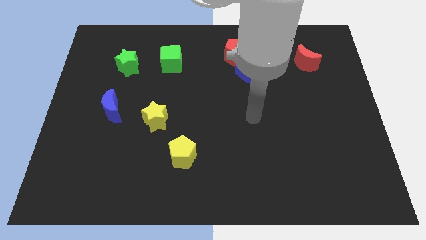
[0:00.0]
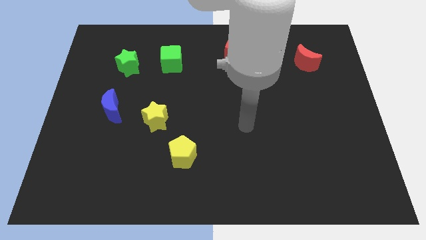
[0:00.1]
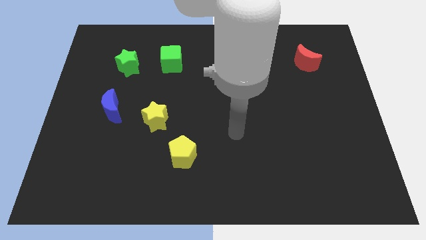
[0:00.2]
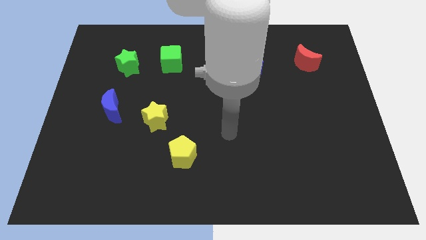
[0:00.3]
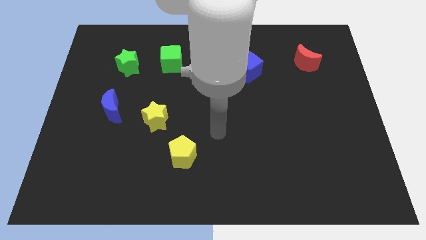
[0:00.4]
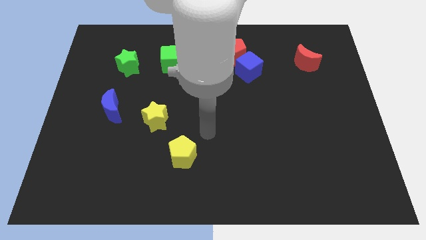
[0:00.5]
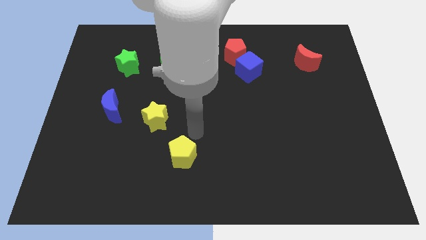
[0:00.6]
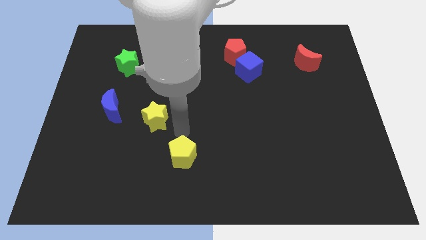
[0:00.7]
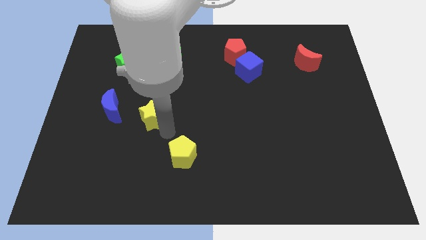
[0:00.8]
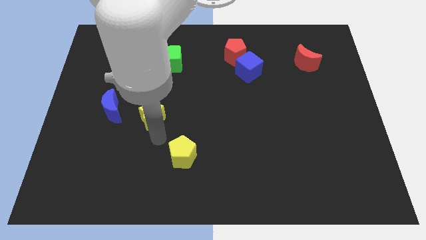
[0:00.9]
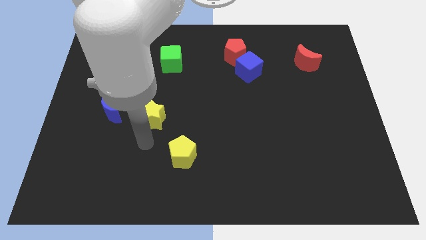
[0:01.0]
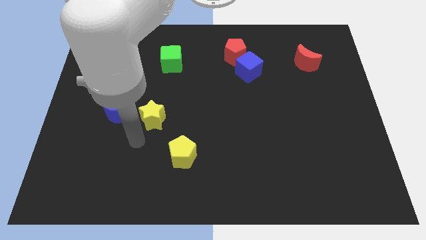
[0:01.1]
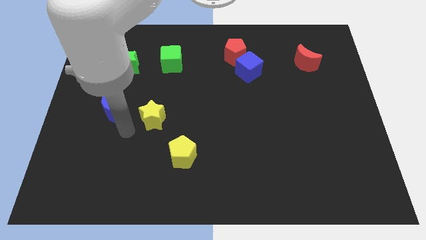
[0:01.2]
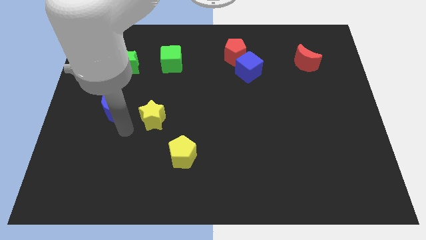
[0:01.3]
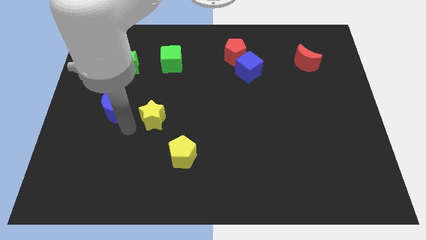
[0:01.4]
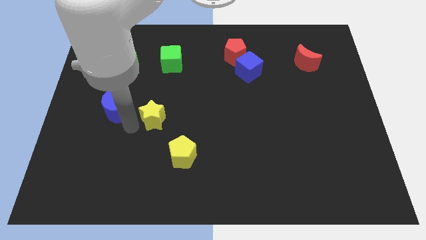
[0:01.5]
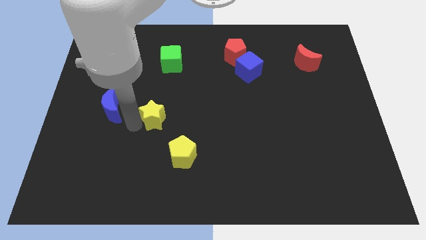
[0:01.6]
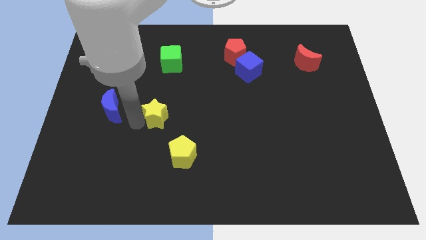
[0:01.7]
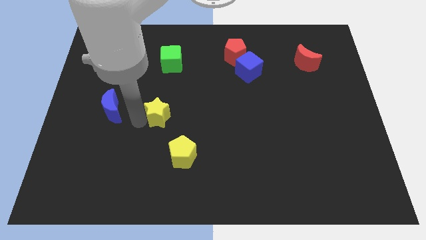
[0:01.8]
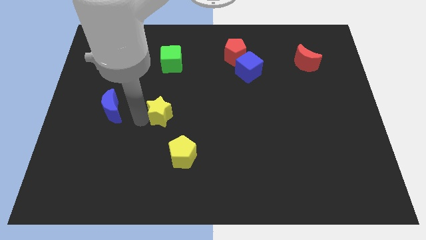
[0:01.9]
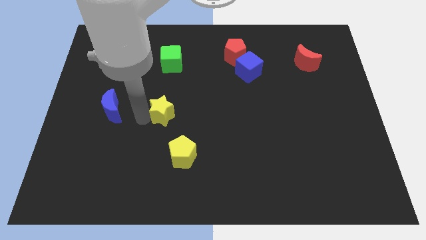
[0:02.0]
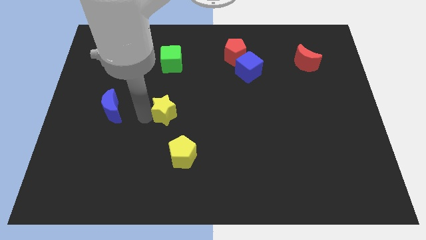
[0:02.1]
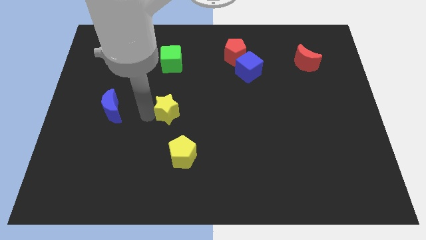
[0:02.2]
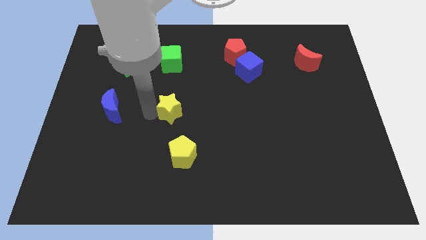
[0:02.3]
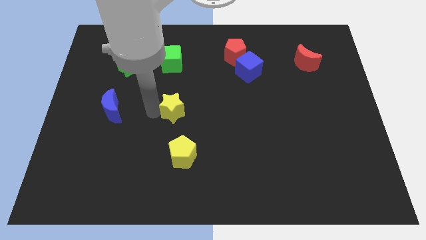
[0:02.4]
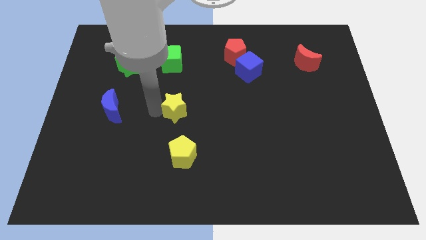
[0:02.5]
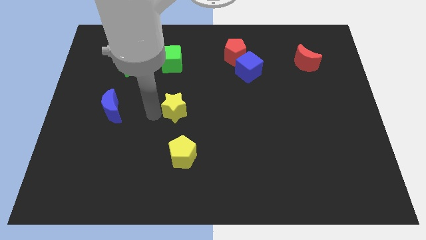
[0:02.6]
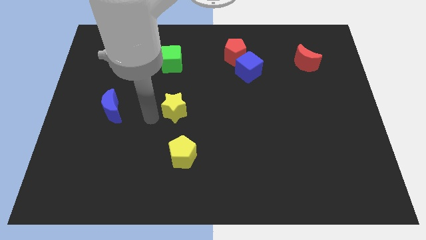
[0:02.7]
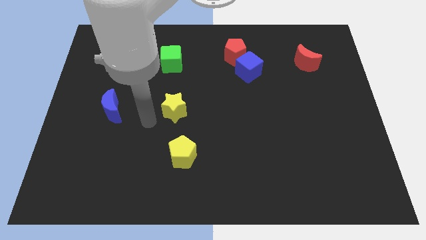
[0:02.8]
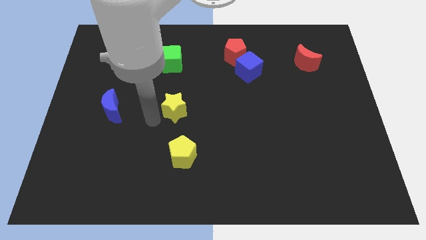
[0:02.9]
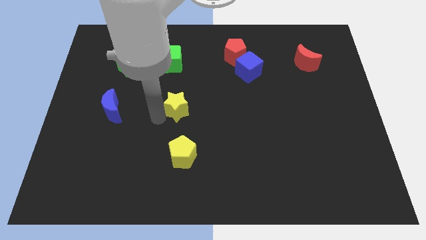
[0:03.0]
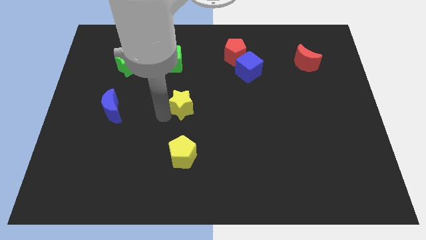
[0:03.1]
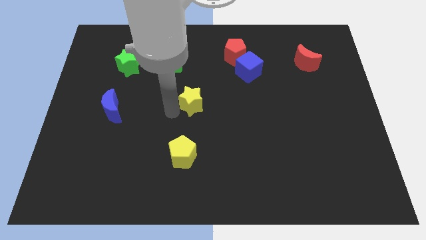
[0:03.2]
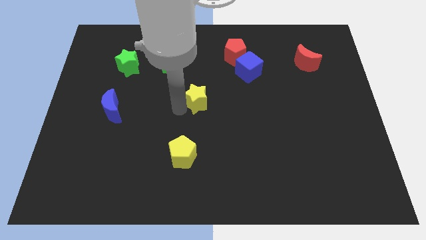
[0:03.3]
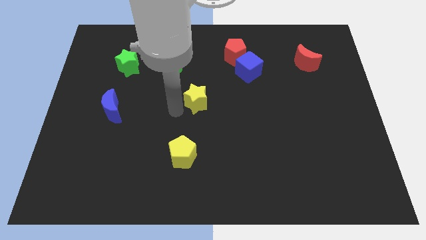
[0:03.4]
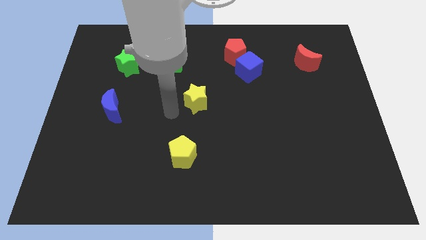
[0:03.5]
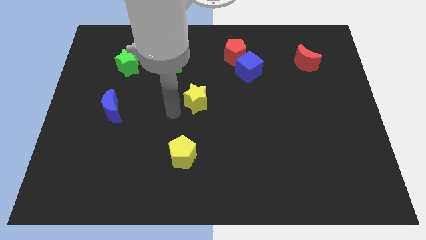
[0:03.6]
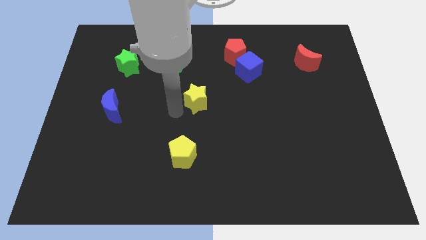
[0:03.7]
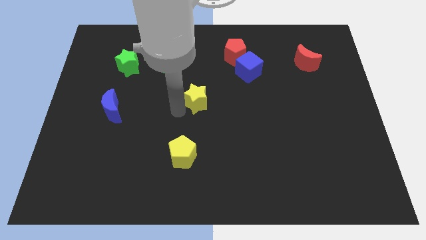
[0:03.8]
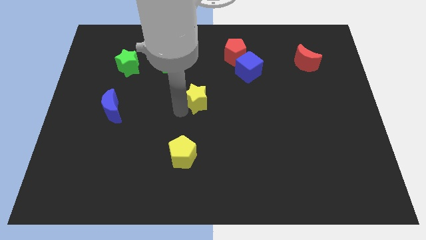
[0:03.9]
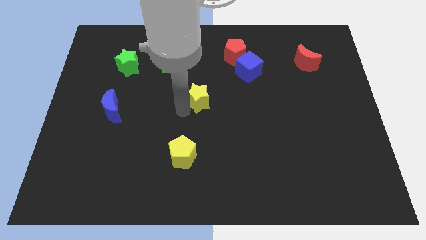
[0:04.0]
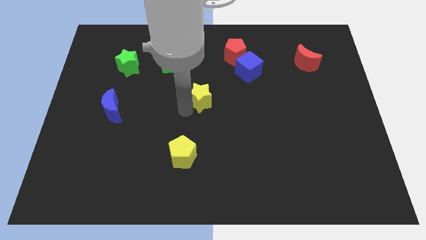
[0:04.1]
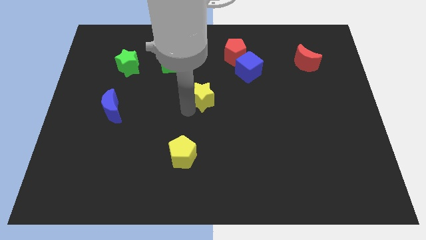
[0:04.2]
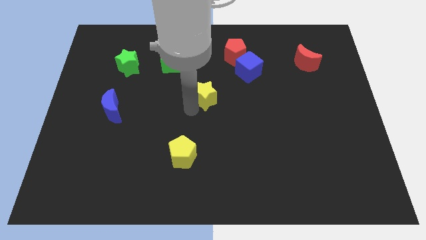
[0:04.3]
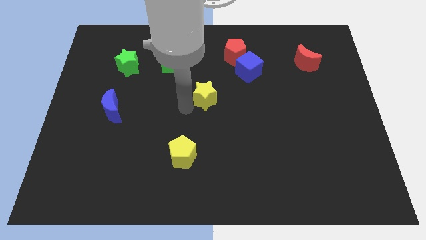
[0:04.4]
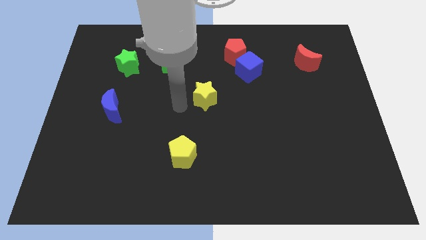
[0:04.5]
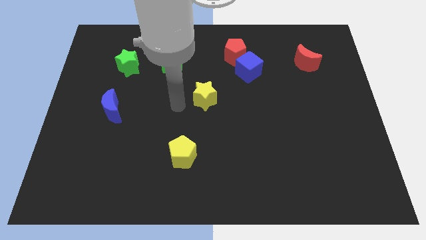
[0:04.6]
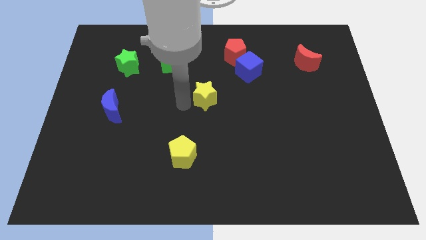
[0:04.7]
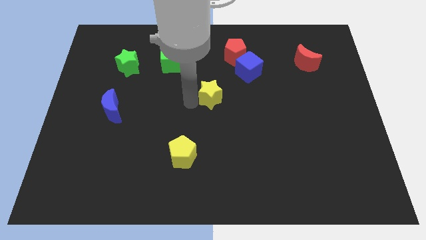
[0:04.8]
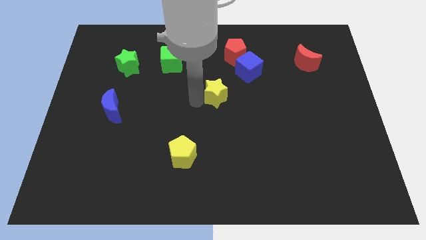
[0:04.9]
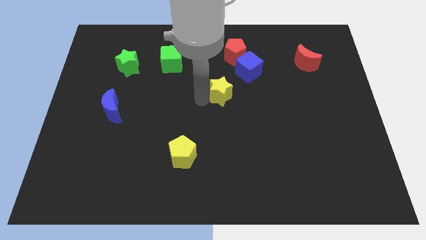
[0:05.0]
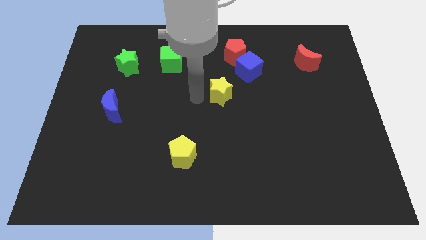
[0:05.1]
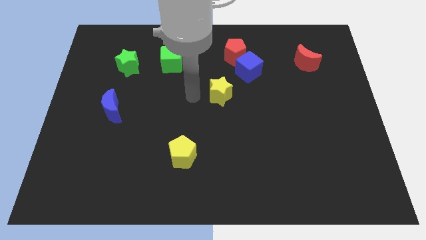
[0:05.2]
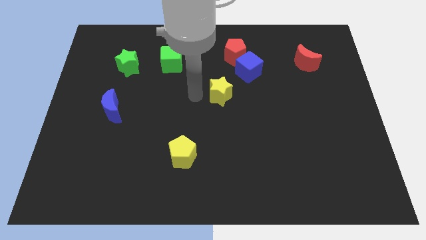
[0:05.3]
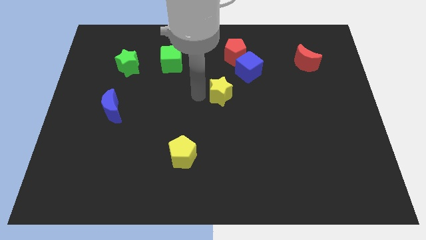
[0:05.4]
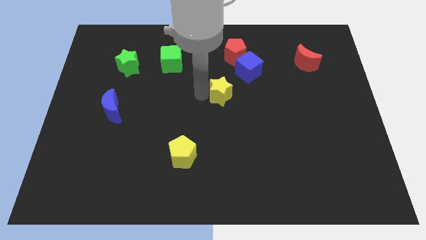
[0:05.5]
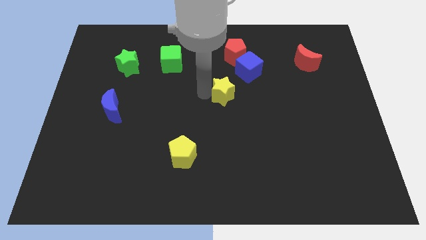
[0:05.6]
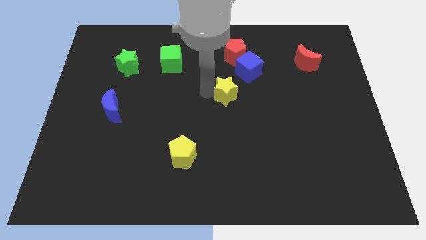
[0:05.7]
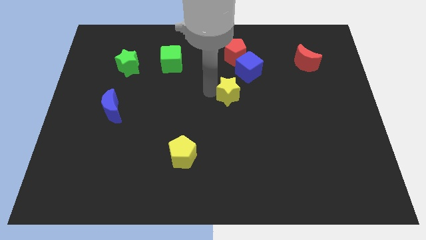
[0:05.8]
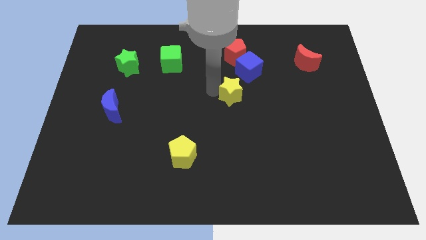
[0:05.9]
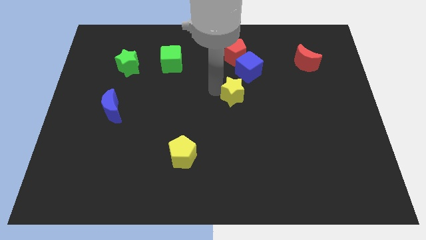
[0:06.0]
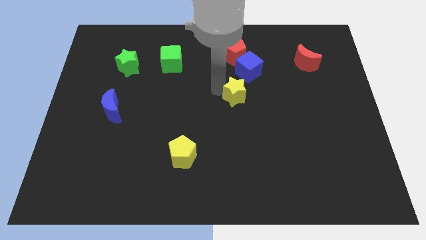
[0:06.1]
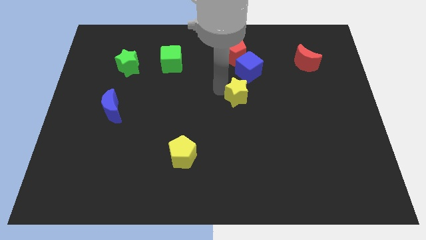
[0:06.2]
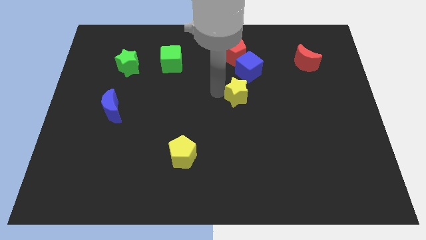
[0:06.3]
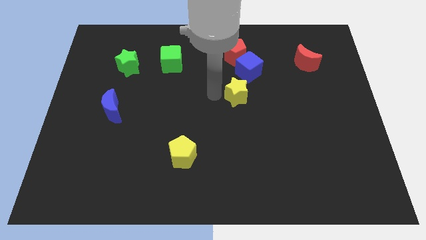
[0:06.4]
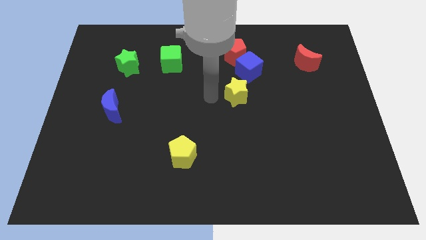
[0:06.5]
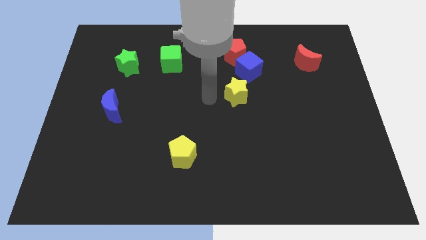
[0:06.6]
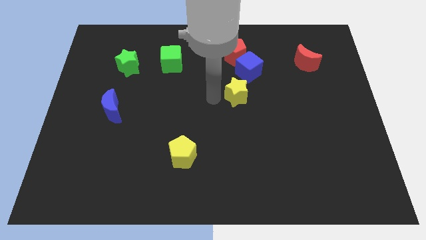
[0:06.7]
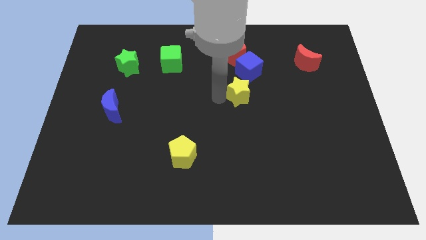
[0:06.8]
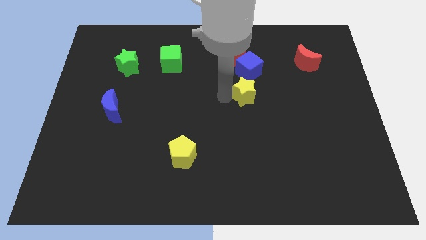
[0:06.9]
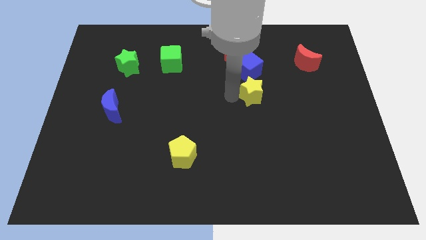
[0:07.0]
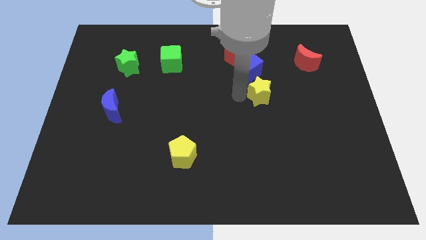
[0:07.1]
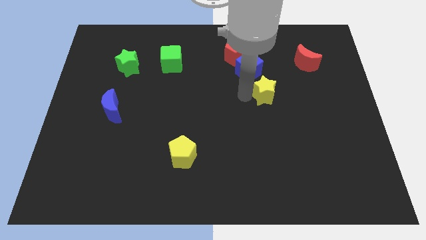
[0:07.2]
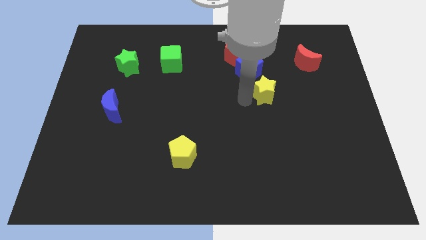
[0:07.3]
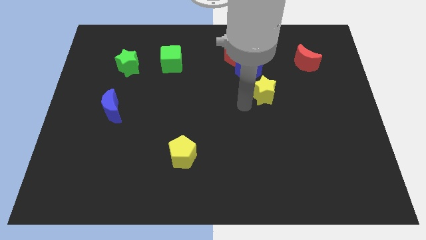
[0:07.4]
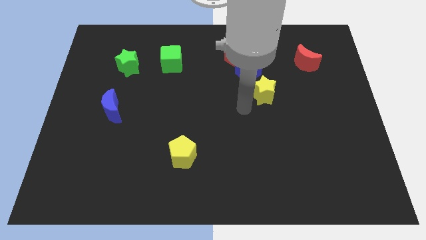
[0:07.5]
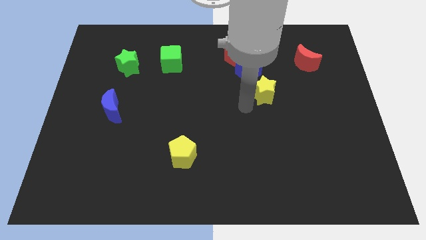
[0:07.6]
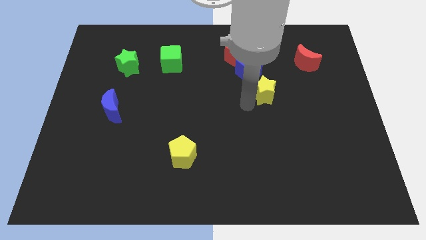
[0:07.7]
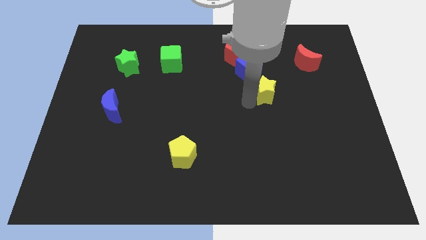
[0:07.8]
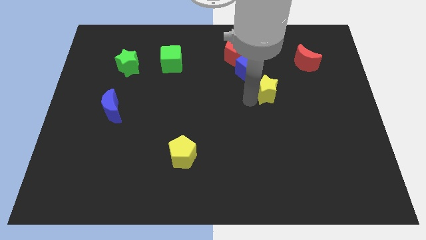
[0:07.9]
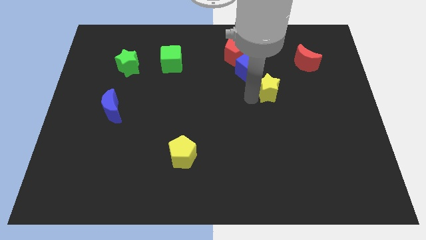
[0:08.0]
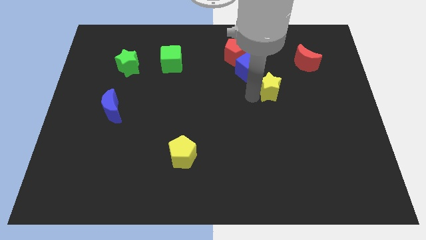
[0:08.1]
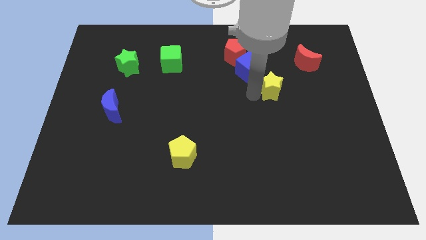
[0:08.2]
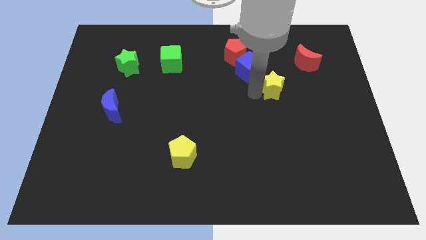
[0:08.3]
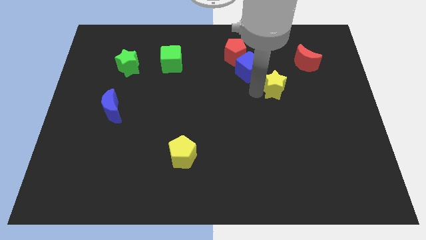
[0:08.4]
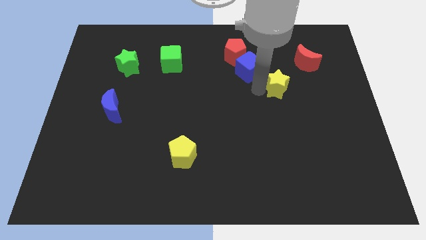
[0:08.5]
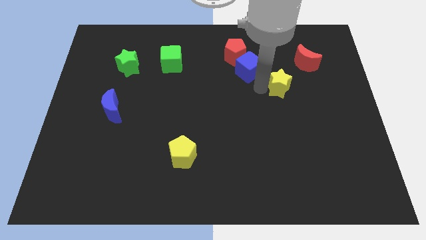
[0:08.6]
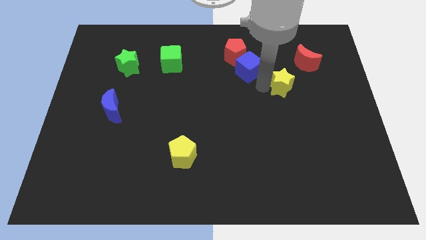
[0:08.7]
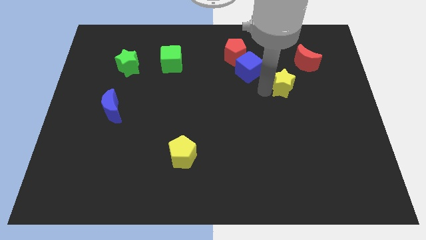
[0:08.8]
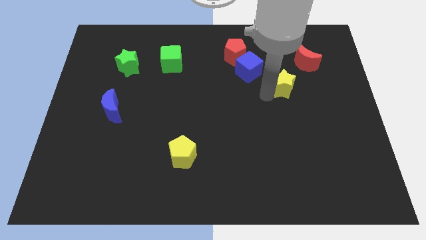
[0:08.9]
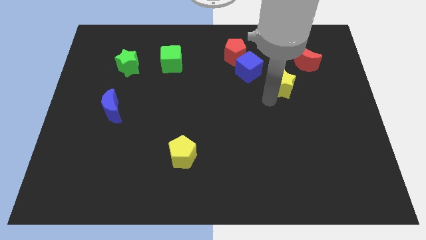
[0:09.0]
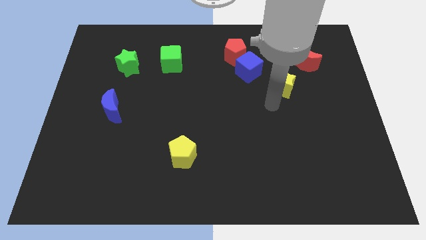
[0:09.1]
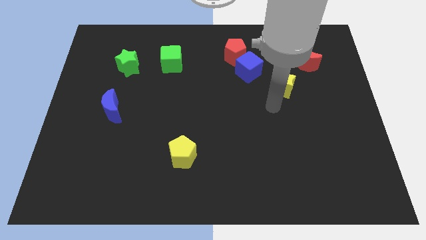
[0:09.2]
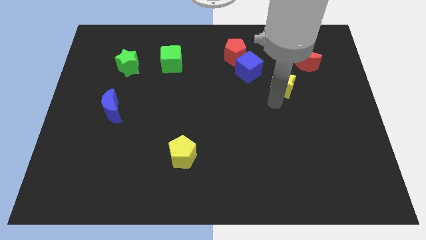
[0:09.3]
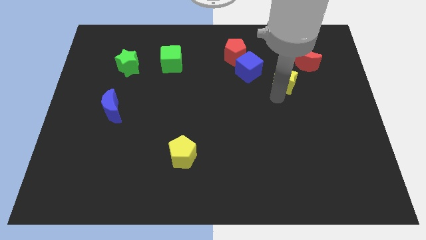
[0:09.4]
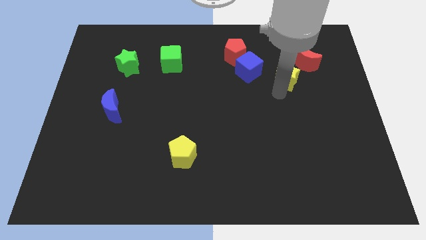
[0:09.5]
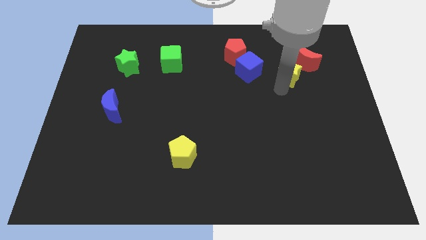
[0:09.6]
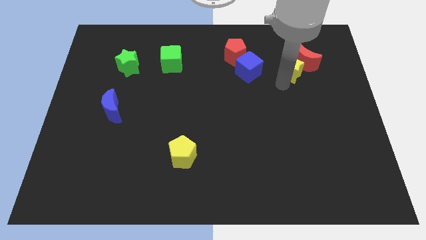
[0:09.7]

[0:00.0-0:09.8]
push the yellow star towards the red moon
